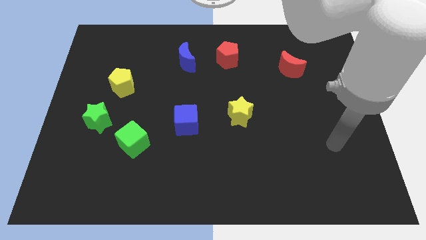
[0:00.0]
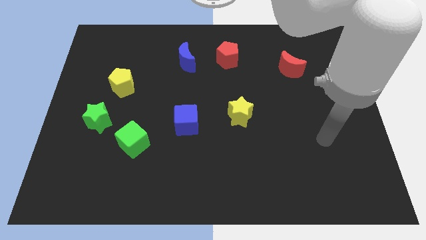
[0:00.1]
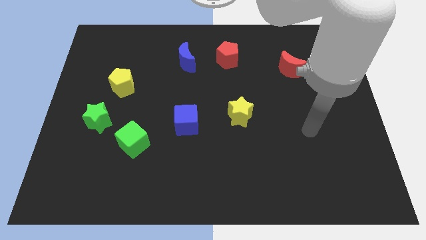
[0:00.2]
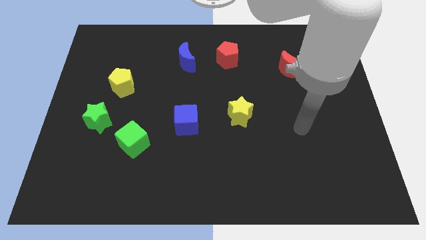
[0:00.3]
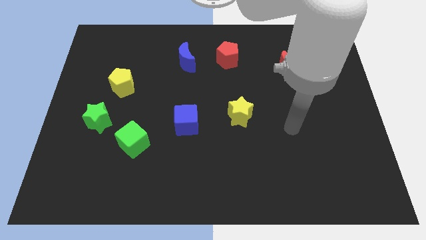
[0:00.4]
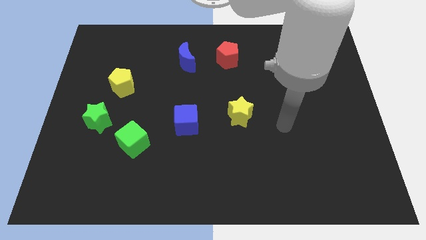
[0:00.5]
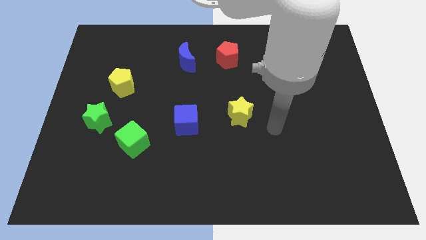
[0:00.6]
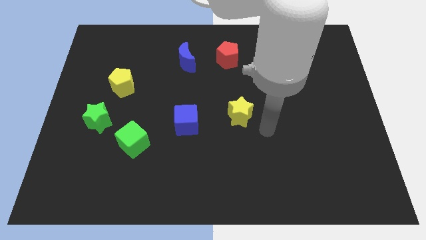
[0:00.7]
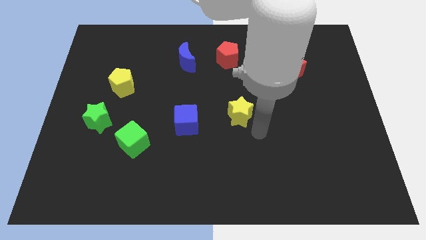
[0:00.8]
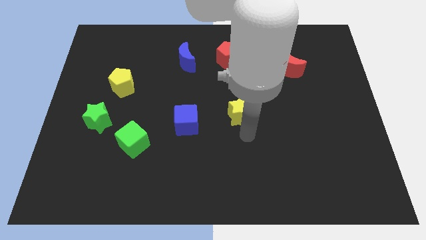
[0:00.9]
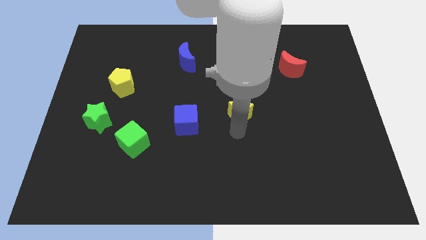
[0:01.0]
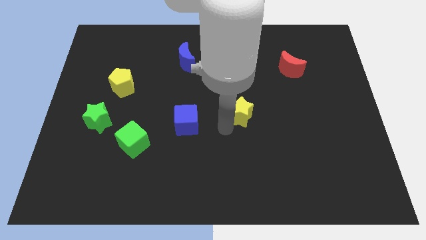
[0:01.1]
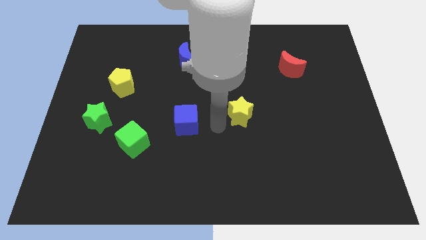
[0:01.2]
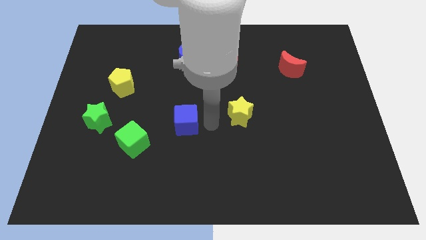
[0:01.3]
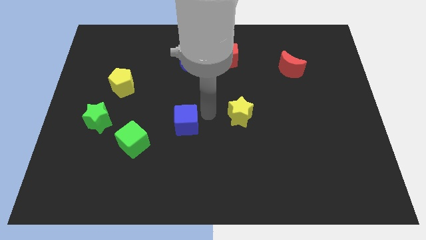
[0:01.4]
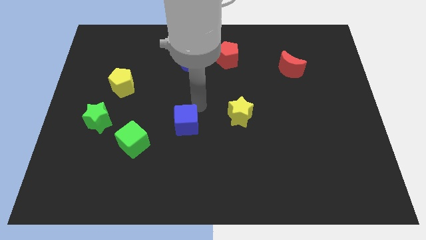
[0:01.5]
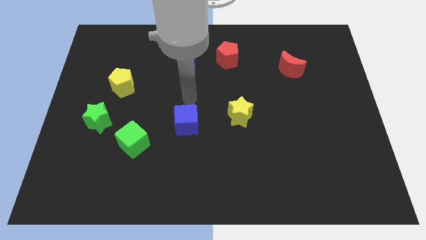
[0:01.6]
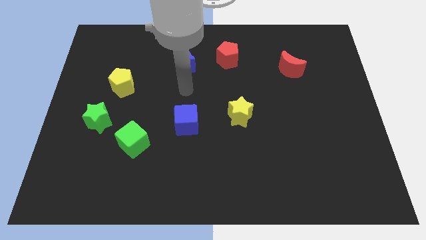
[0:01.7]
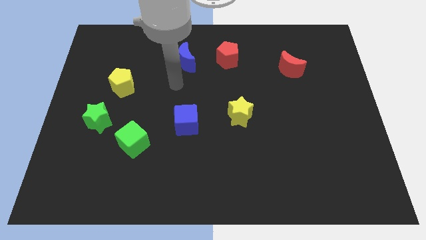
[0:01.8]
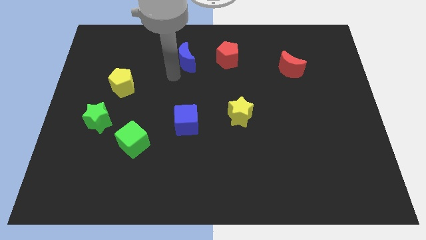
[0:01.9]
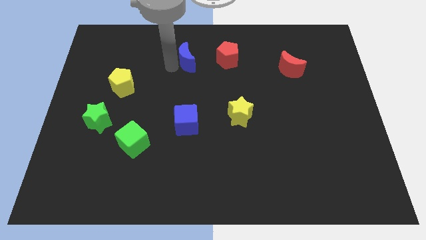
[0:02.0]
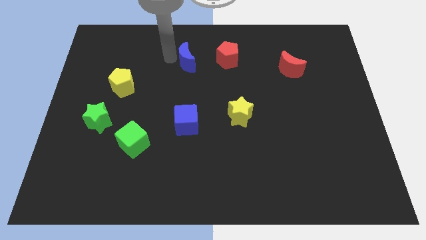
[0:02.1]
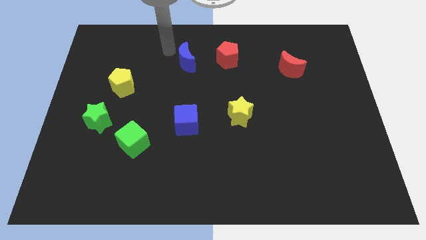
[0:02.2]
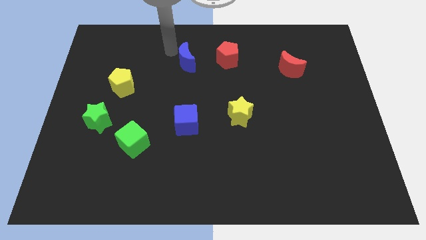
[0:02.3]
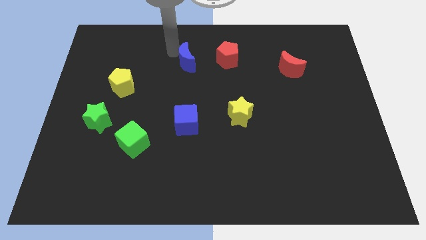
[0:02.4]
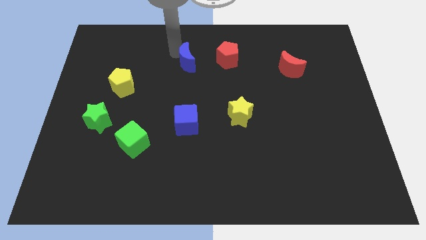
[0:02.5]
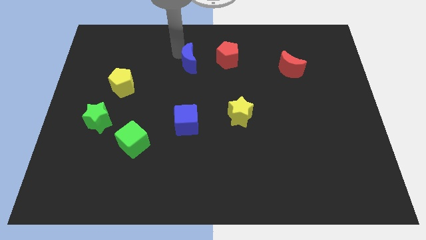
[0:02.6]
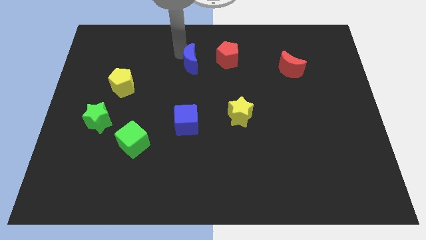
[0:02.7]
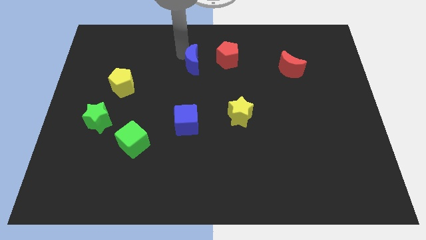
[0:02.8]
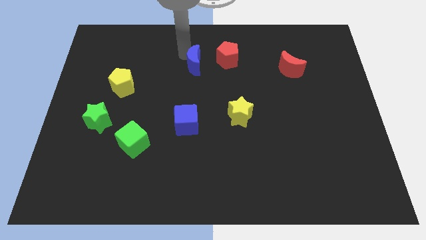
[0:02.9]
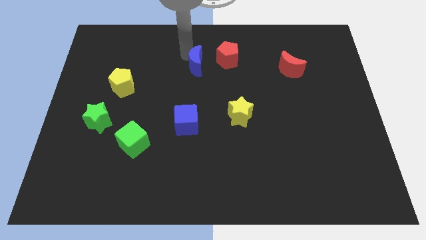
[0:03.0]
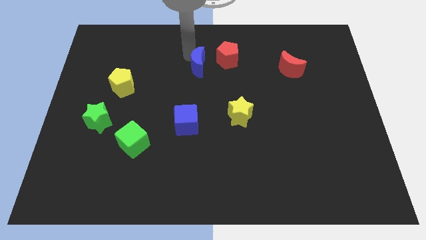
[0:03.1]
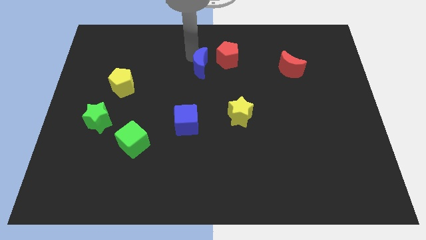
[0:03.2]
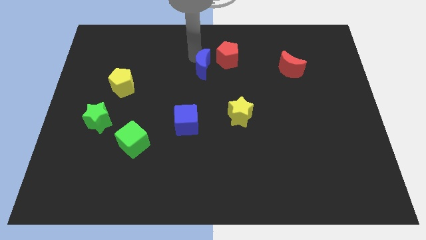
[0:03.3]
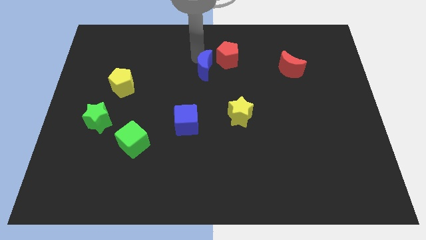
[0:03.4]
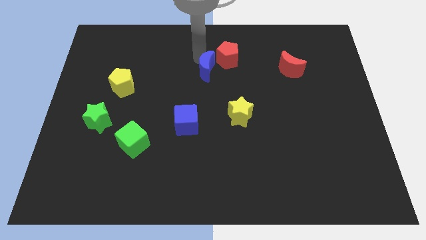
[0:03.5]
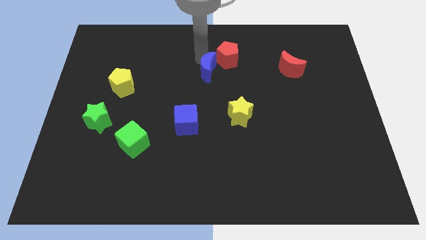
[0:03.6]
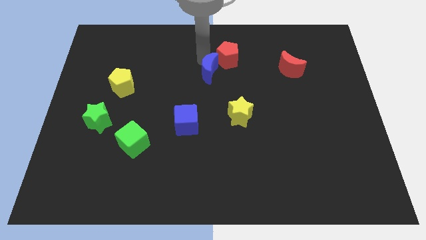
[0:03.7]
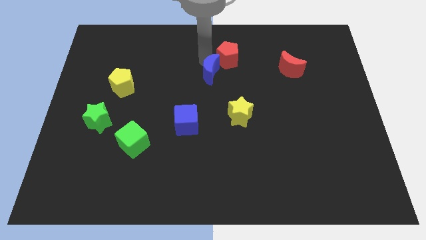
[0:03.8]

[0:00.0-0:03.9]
push the blue moon down and to the right diagonally slightly

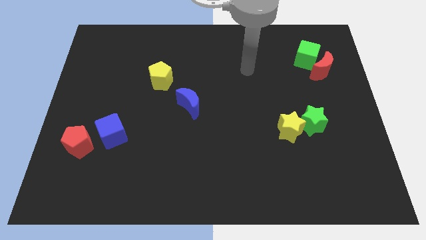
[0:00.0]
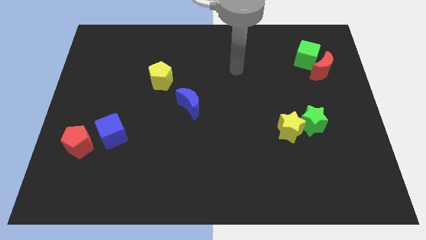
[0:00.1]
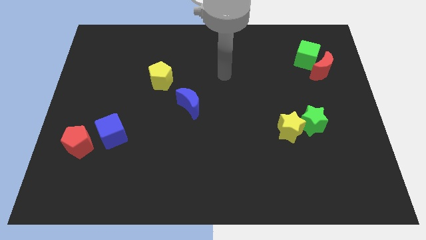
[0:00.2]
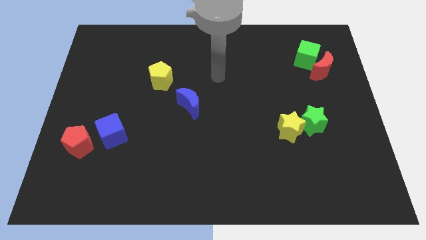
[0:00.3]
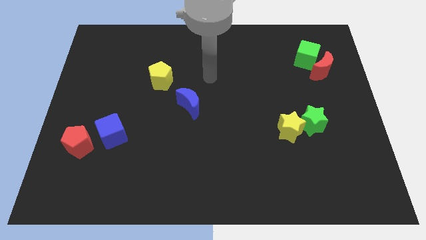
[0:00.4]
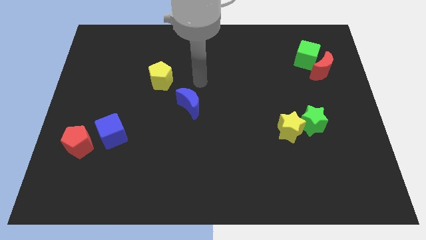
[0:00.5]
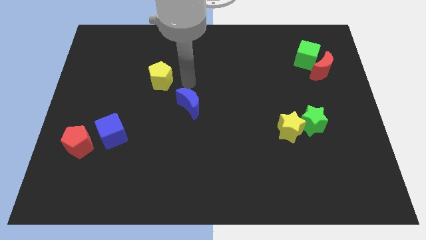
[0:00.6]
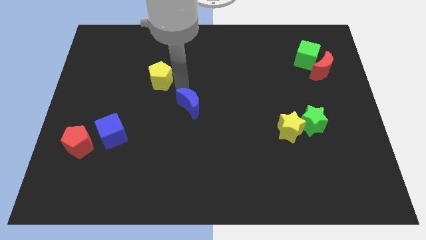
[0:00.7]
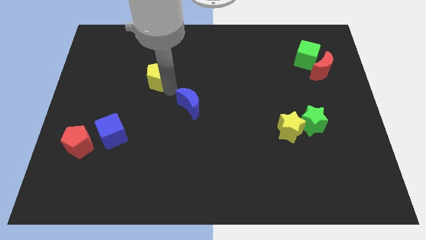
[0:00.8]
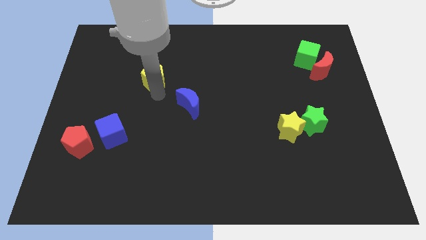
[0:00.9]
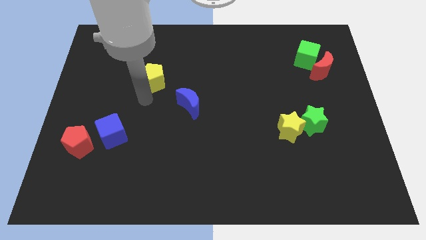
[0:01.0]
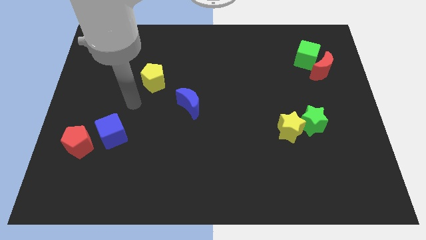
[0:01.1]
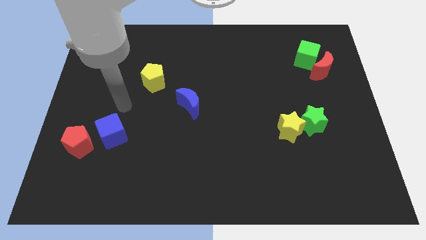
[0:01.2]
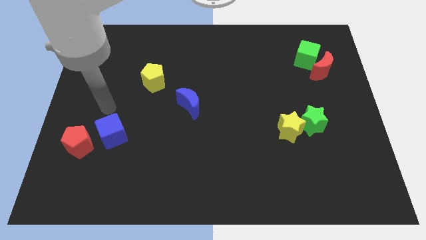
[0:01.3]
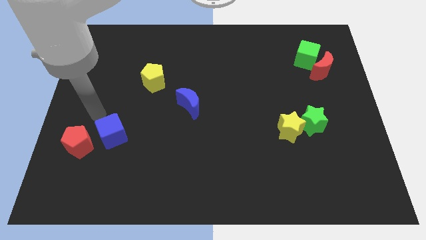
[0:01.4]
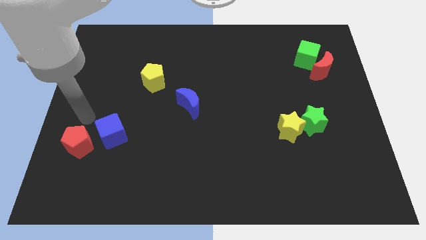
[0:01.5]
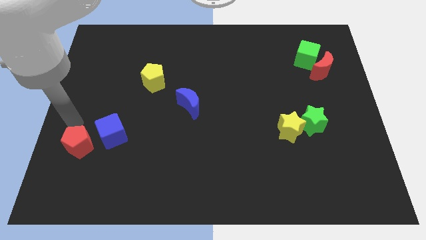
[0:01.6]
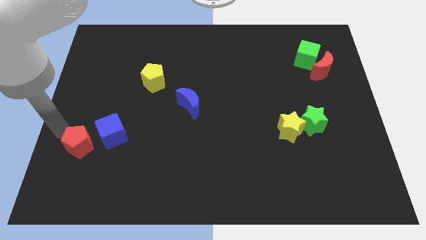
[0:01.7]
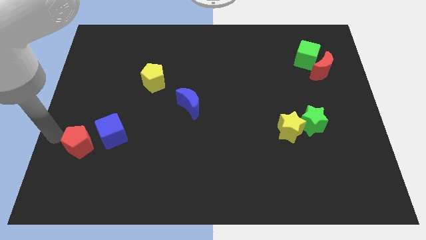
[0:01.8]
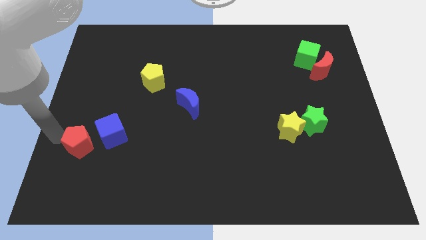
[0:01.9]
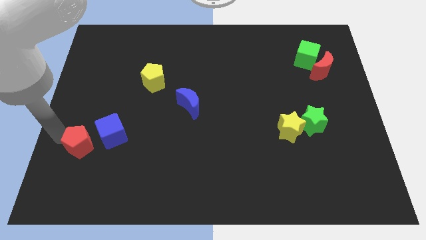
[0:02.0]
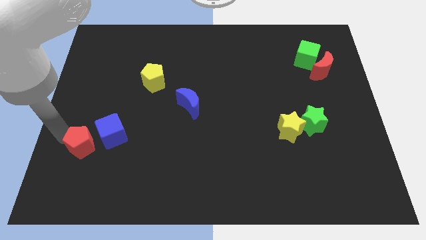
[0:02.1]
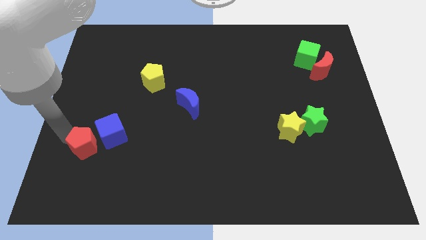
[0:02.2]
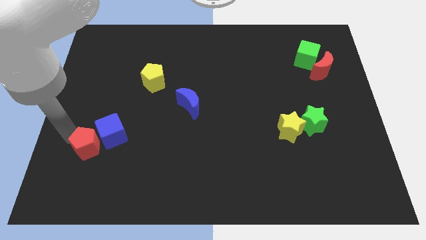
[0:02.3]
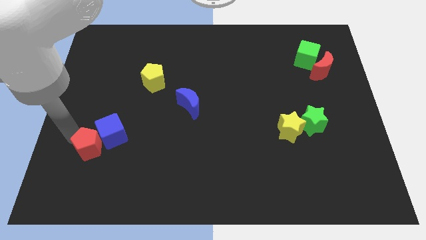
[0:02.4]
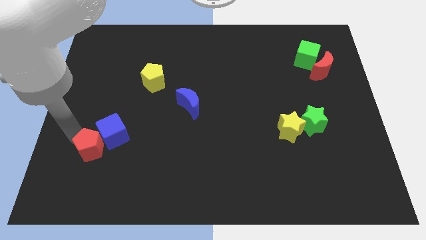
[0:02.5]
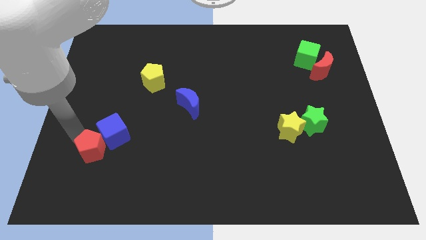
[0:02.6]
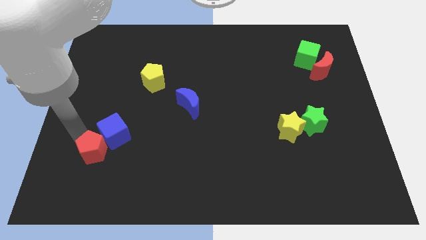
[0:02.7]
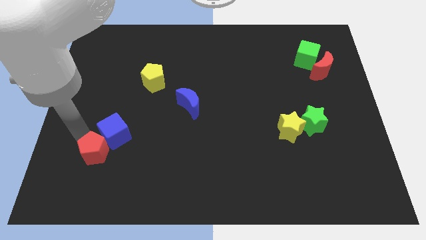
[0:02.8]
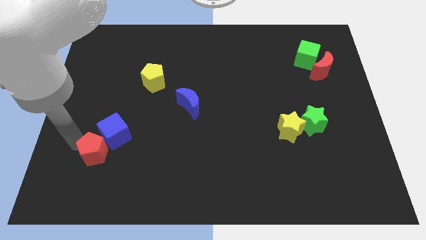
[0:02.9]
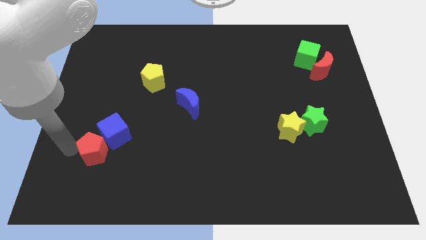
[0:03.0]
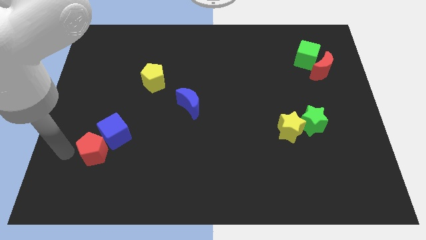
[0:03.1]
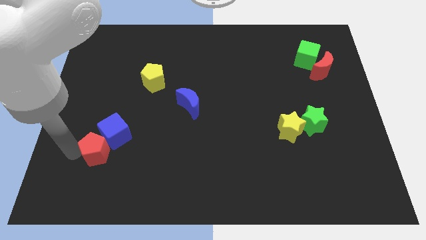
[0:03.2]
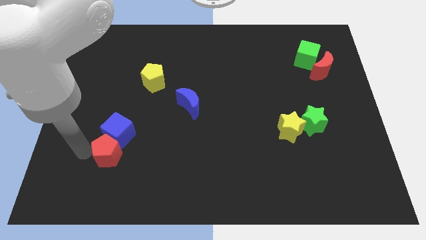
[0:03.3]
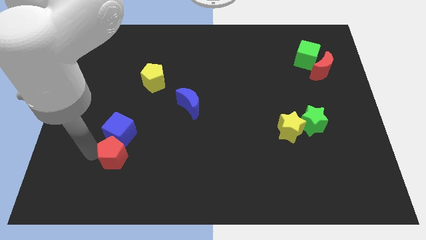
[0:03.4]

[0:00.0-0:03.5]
slide the red pentagon somewhat to the right

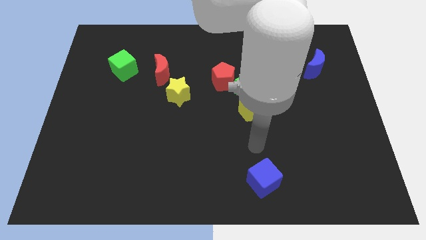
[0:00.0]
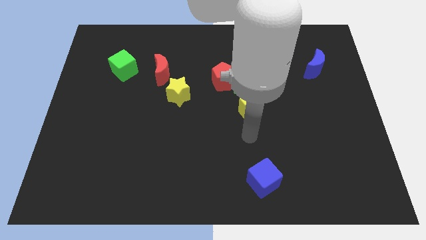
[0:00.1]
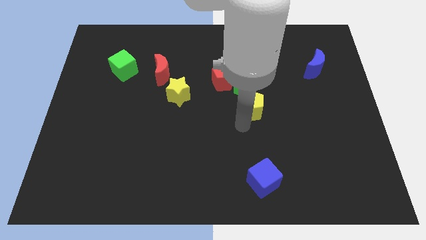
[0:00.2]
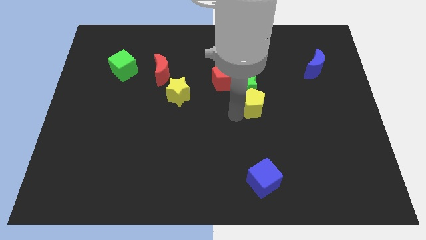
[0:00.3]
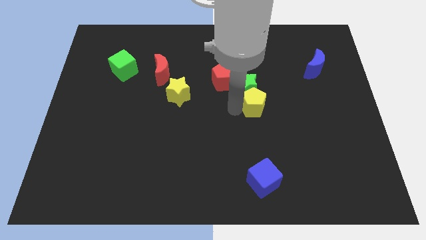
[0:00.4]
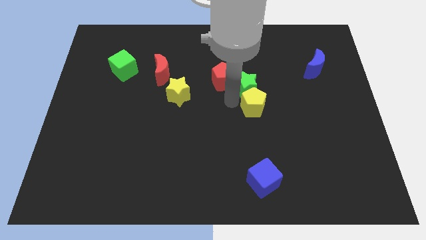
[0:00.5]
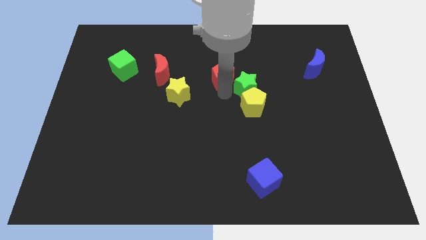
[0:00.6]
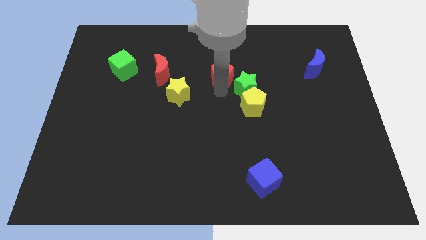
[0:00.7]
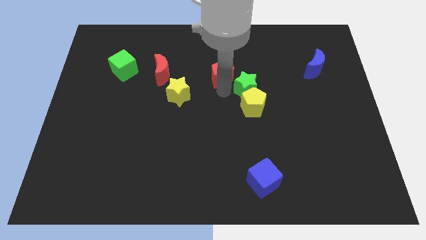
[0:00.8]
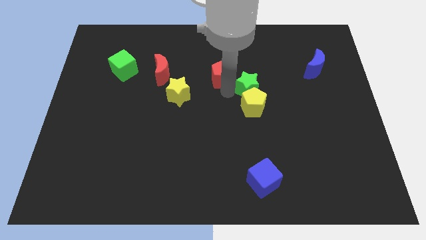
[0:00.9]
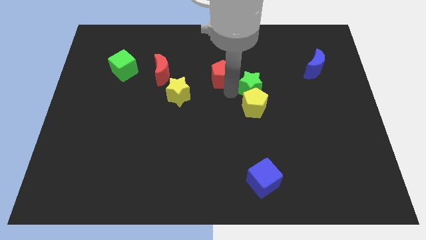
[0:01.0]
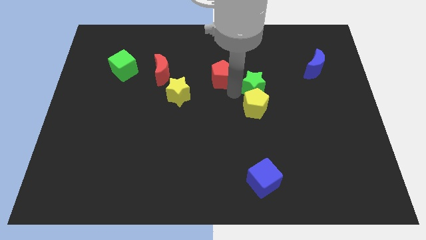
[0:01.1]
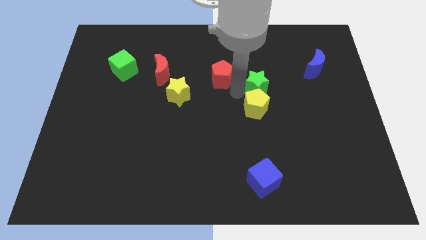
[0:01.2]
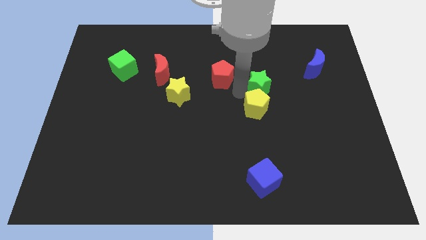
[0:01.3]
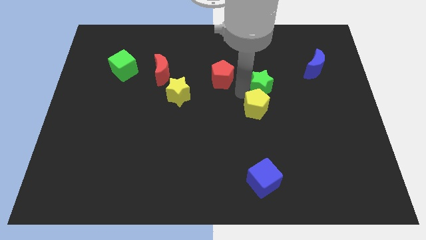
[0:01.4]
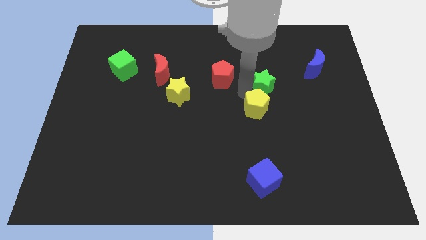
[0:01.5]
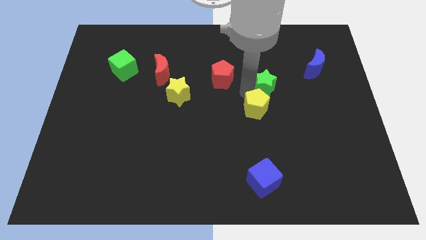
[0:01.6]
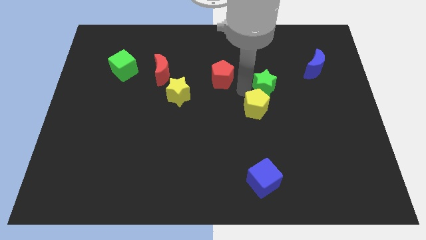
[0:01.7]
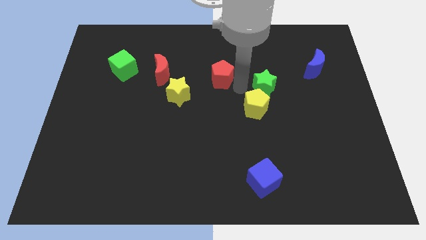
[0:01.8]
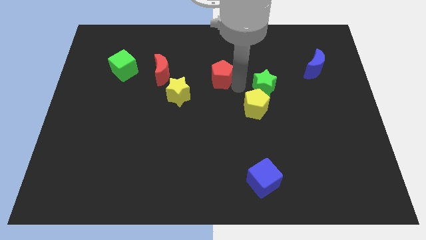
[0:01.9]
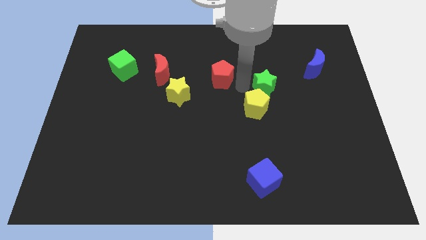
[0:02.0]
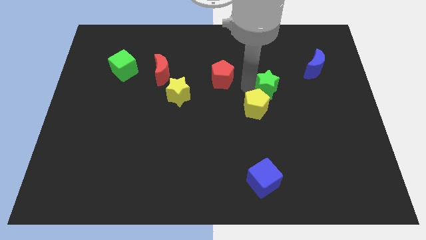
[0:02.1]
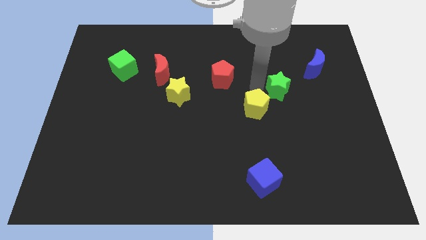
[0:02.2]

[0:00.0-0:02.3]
move the green star right slightly
